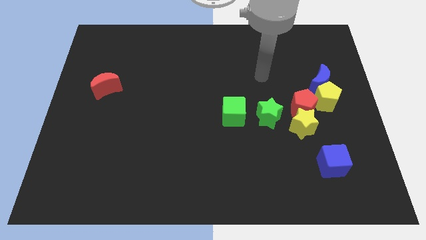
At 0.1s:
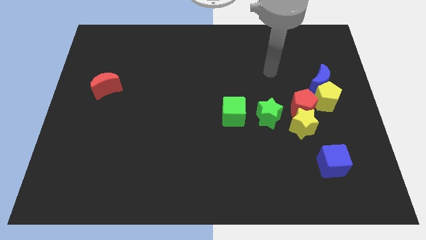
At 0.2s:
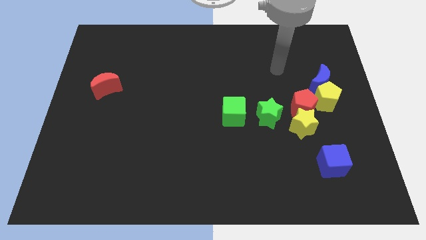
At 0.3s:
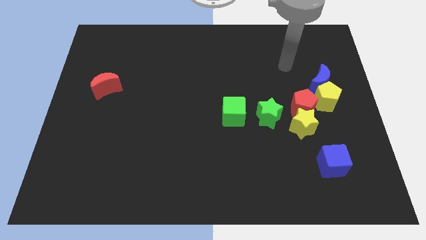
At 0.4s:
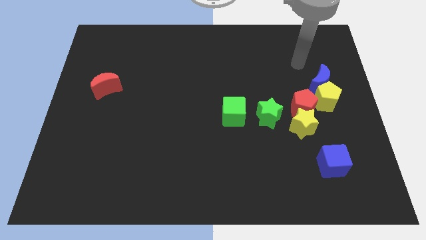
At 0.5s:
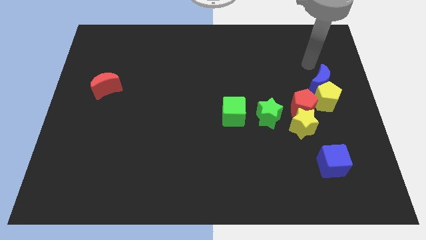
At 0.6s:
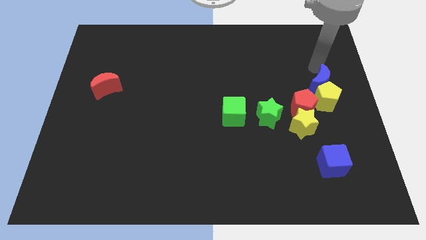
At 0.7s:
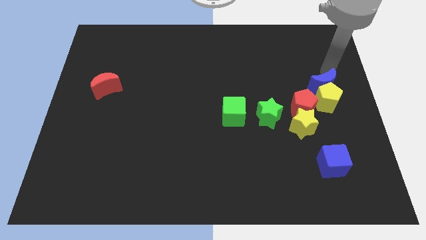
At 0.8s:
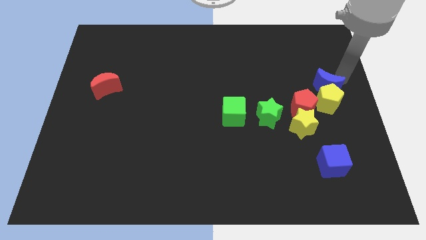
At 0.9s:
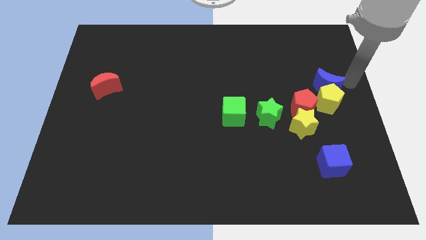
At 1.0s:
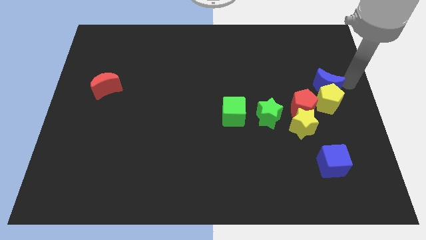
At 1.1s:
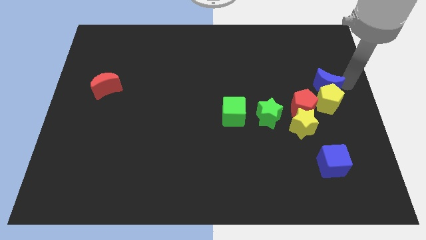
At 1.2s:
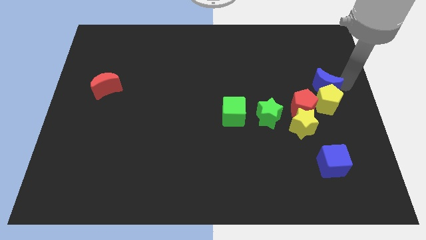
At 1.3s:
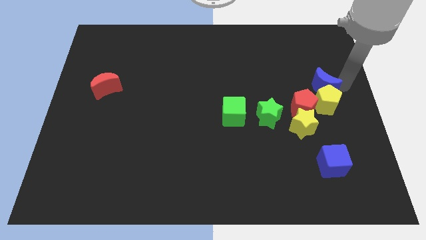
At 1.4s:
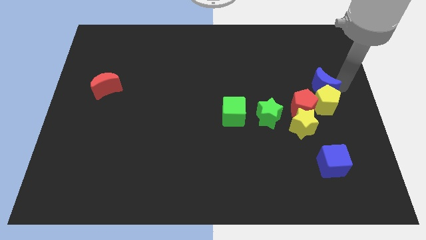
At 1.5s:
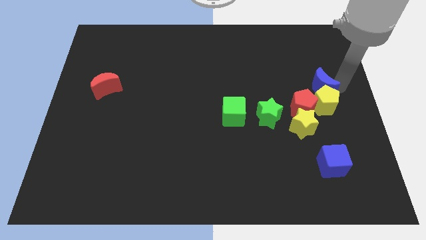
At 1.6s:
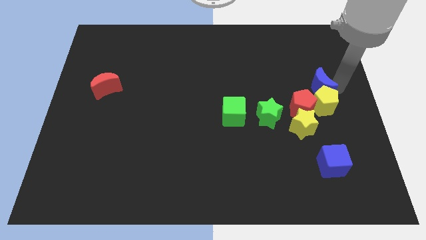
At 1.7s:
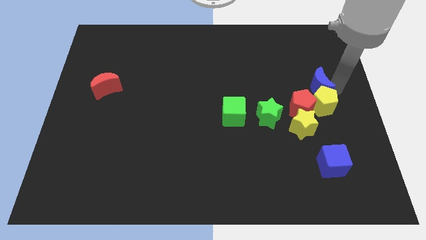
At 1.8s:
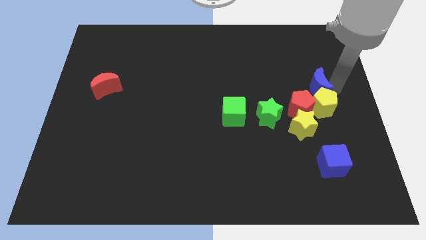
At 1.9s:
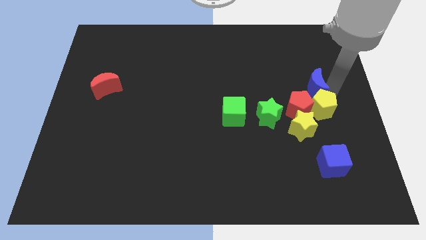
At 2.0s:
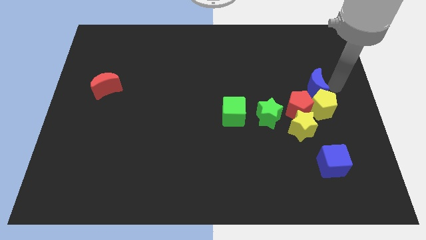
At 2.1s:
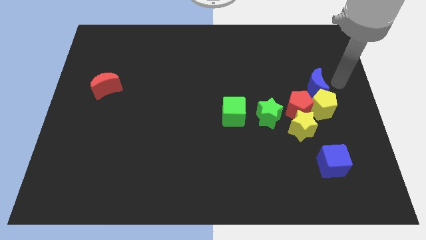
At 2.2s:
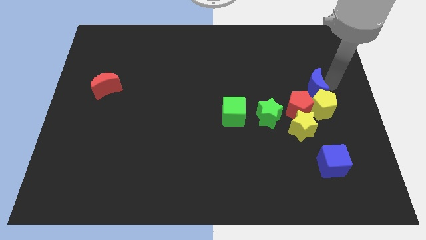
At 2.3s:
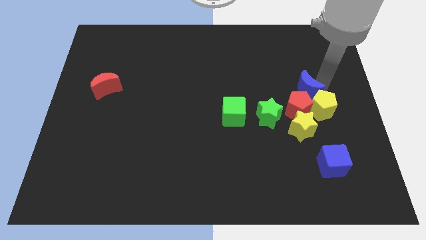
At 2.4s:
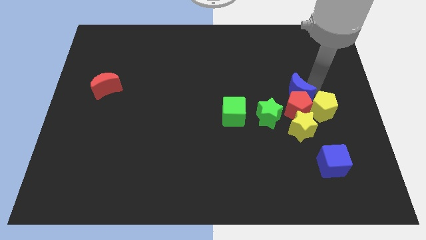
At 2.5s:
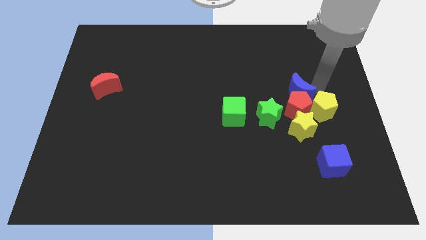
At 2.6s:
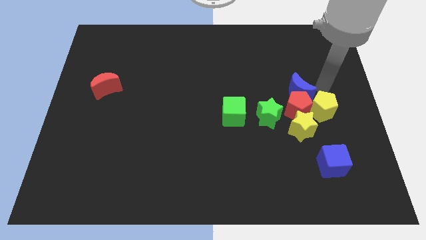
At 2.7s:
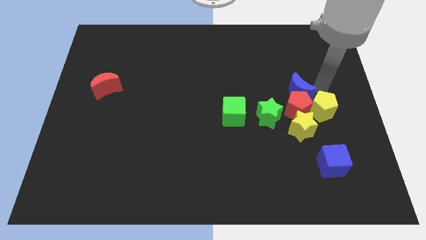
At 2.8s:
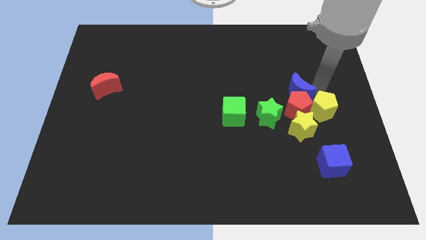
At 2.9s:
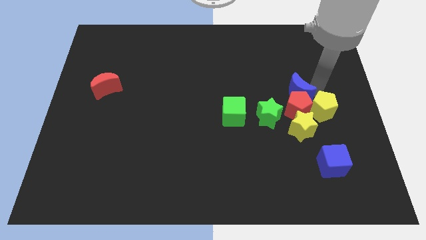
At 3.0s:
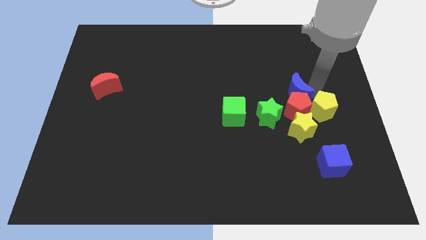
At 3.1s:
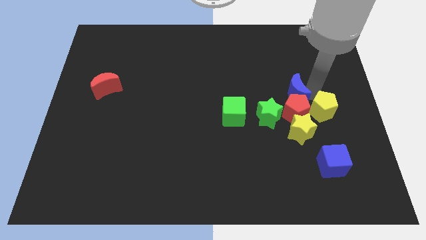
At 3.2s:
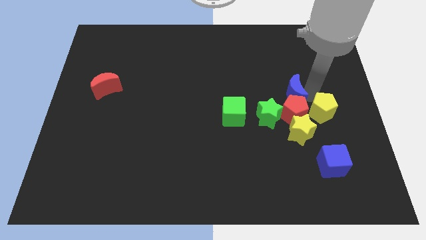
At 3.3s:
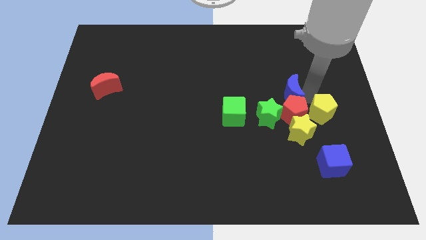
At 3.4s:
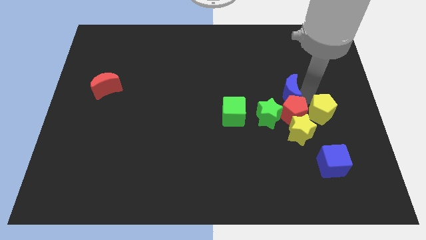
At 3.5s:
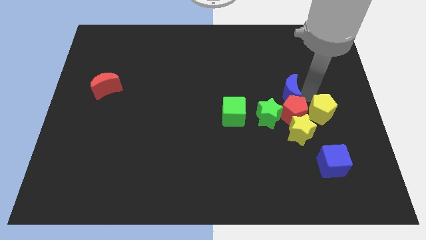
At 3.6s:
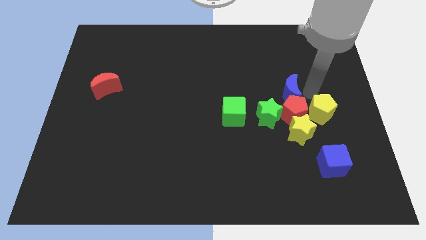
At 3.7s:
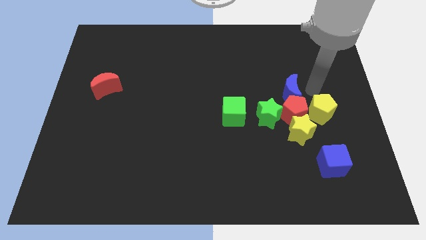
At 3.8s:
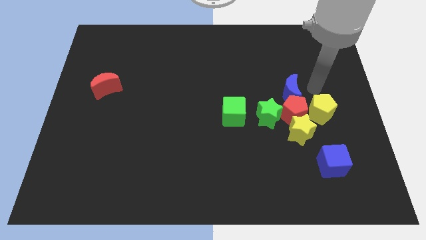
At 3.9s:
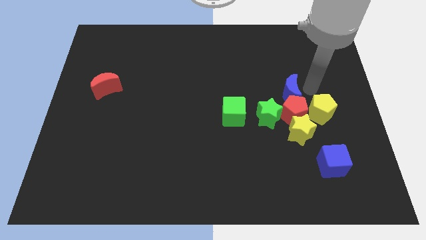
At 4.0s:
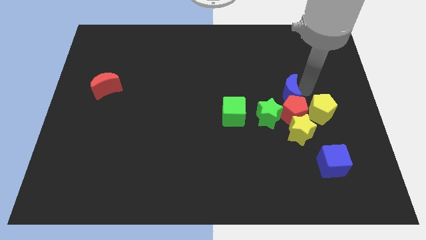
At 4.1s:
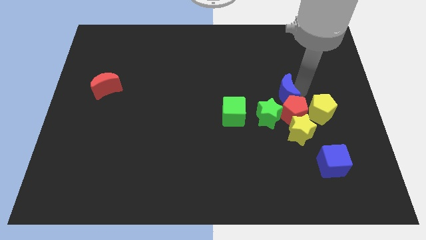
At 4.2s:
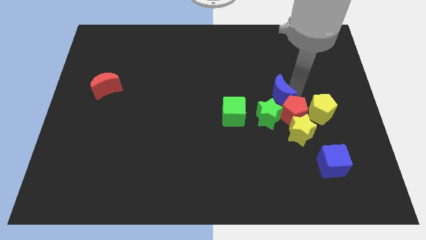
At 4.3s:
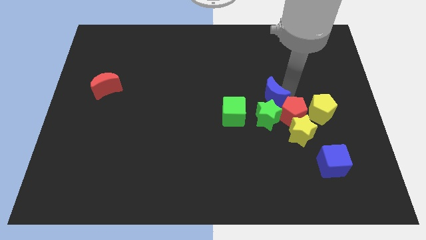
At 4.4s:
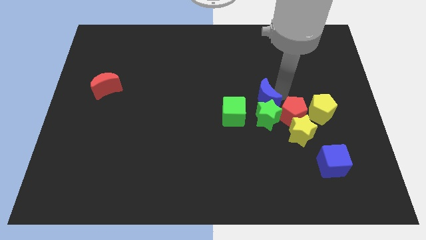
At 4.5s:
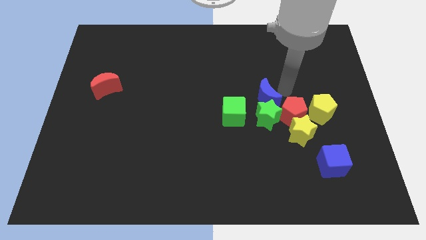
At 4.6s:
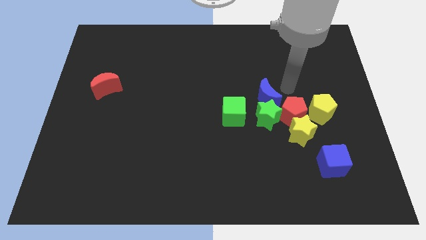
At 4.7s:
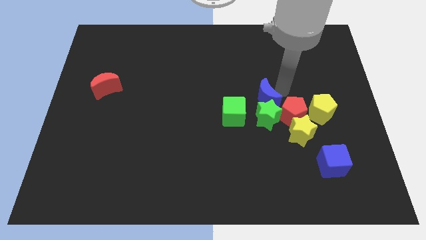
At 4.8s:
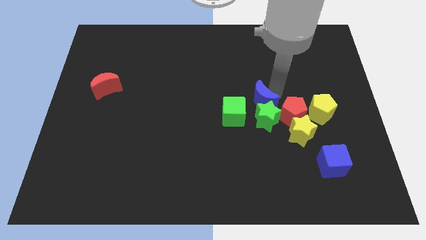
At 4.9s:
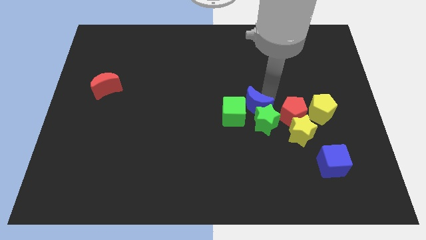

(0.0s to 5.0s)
slide the blue moon towards the green cube

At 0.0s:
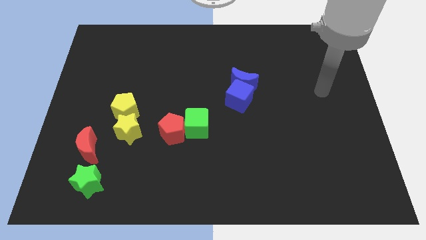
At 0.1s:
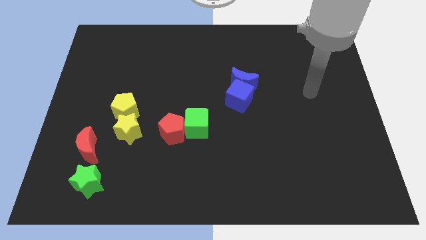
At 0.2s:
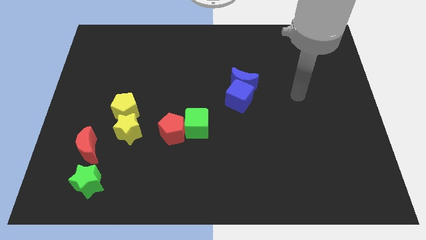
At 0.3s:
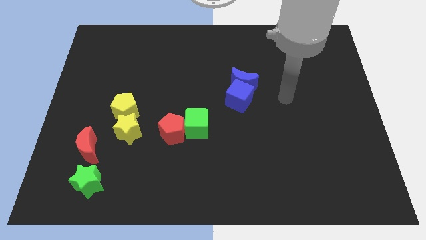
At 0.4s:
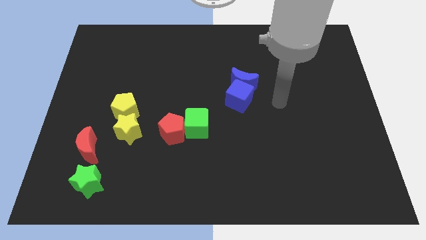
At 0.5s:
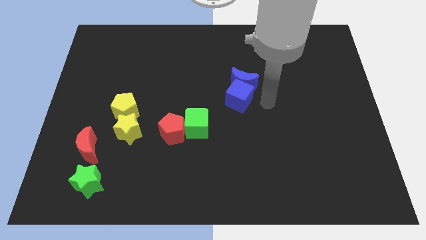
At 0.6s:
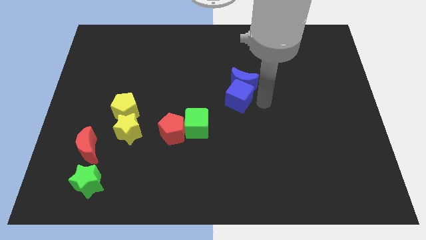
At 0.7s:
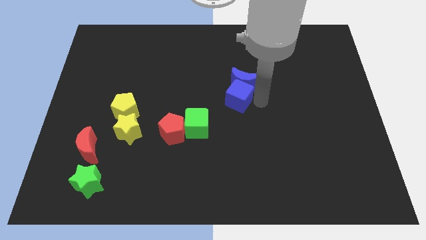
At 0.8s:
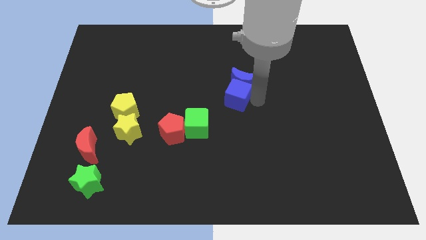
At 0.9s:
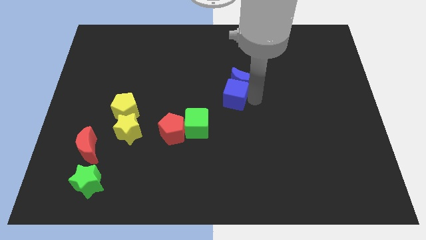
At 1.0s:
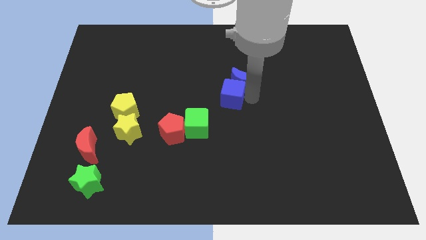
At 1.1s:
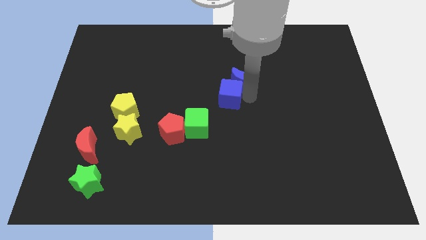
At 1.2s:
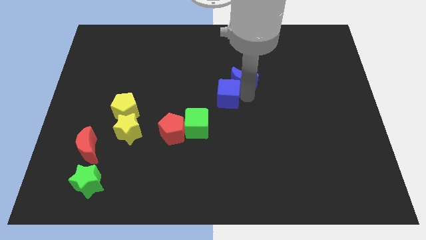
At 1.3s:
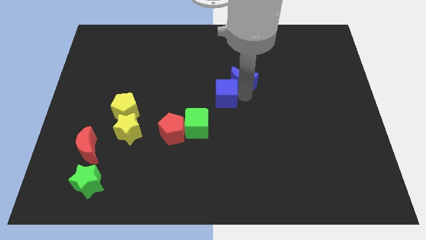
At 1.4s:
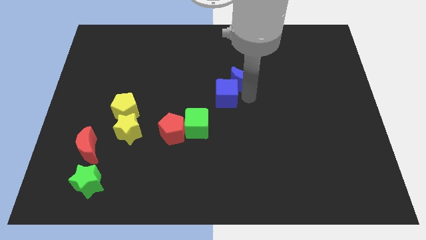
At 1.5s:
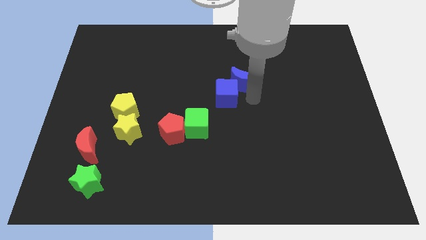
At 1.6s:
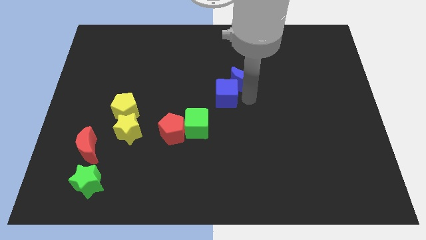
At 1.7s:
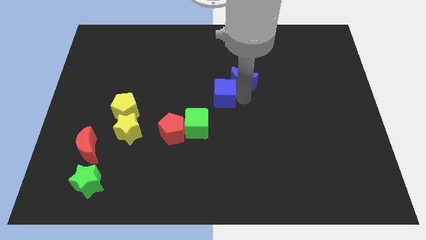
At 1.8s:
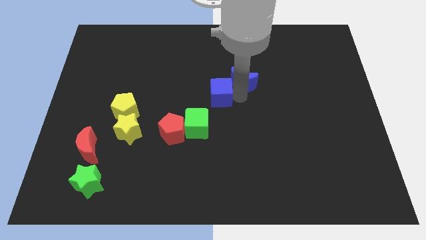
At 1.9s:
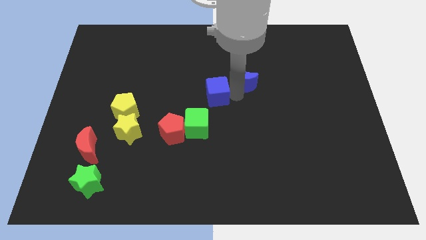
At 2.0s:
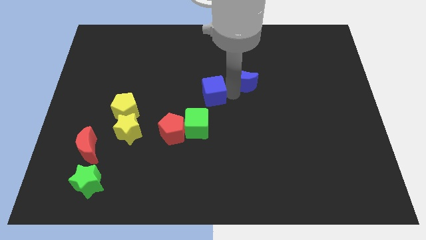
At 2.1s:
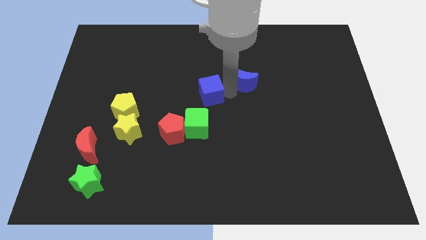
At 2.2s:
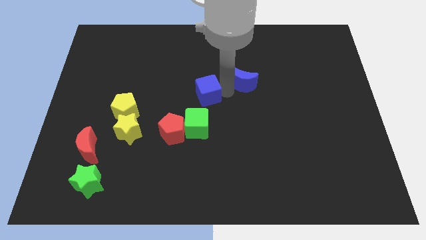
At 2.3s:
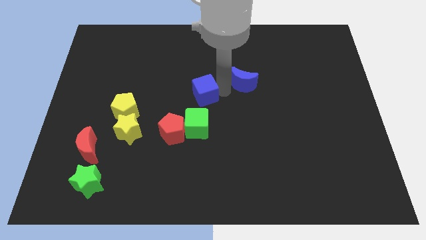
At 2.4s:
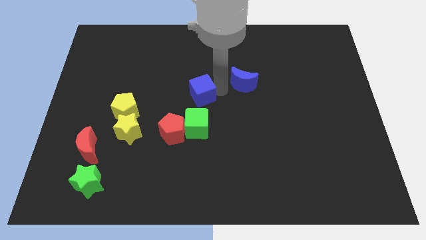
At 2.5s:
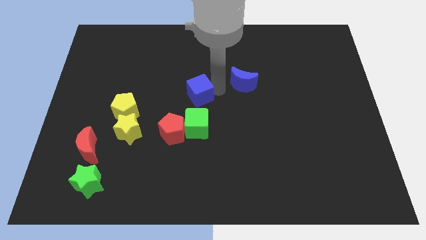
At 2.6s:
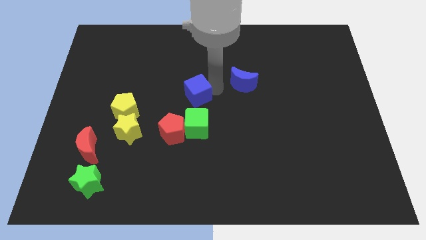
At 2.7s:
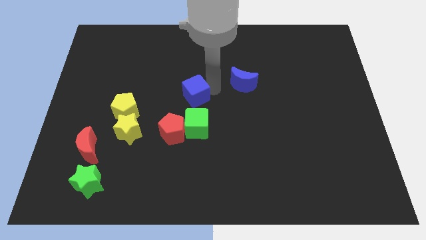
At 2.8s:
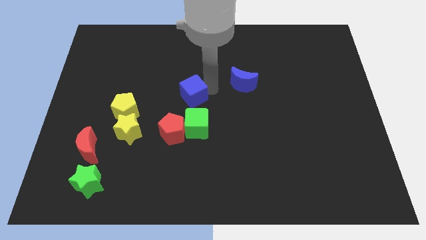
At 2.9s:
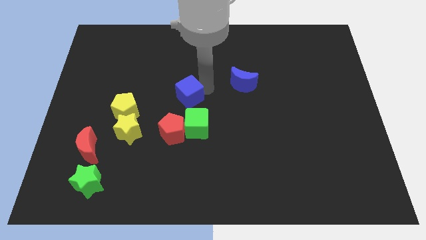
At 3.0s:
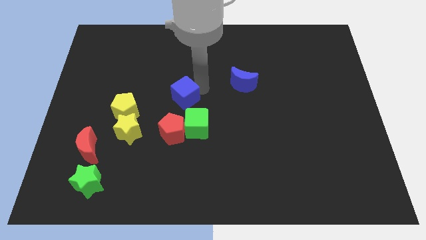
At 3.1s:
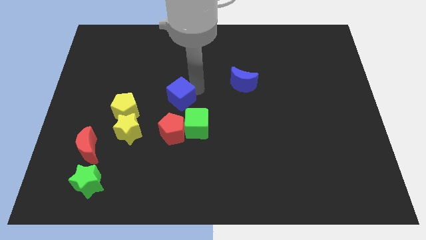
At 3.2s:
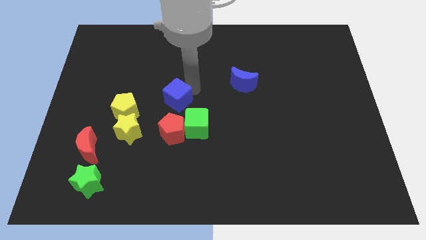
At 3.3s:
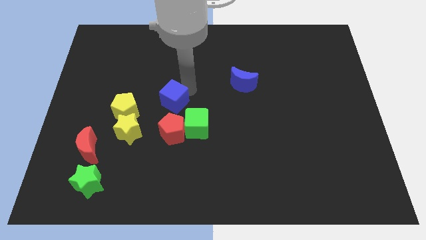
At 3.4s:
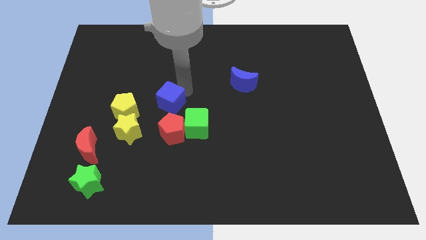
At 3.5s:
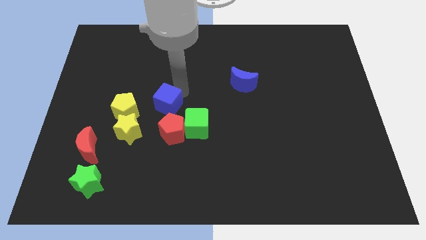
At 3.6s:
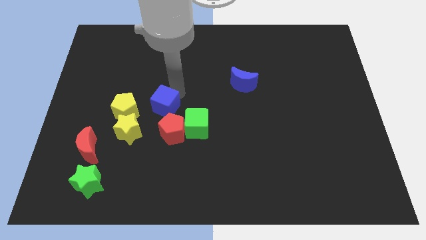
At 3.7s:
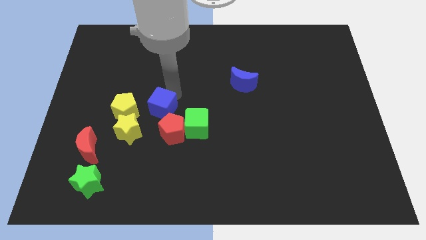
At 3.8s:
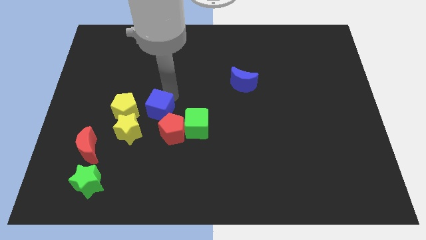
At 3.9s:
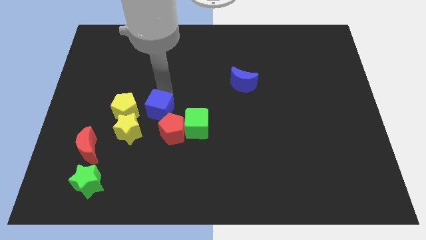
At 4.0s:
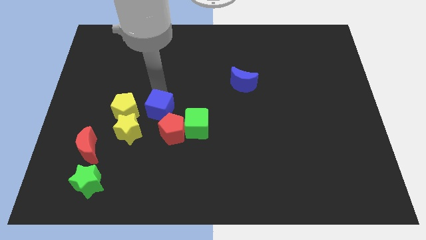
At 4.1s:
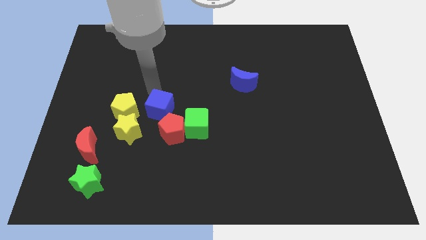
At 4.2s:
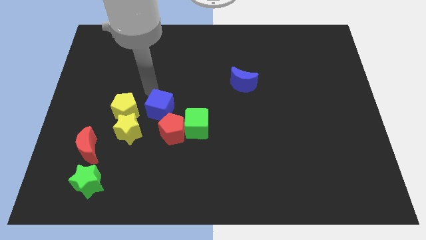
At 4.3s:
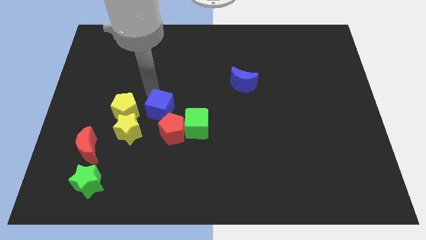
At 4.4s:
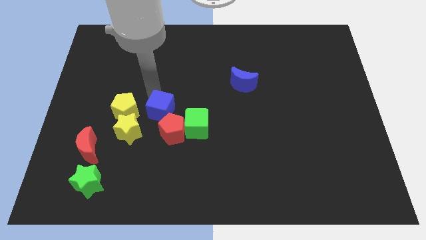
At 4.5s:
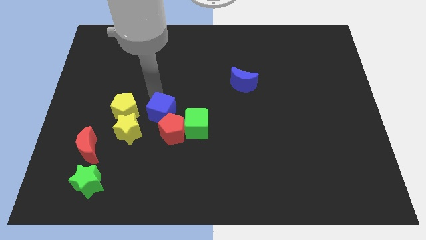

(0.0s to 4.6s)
put the blue cube towards the red pentagon
